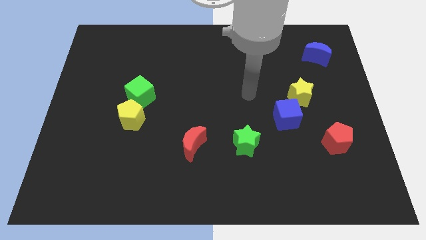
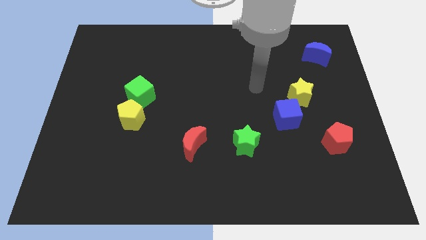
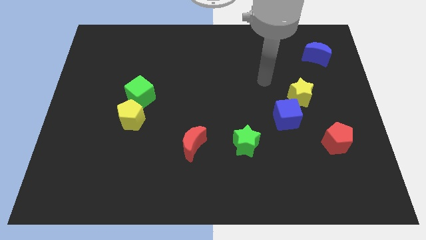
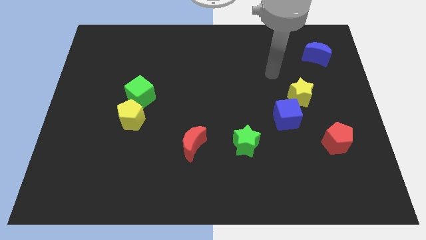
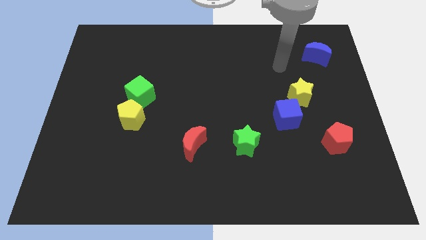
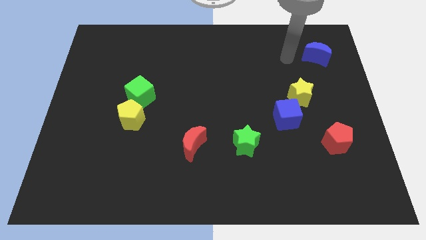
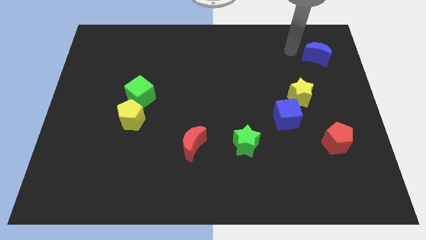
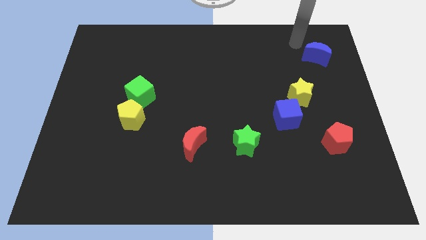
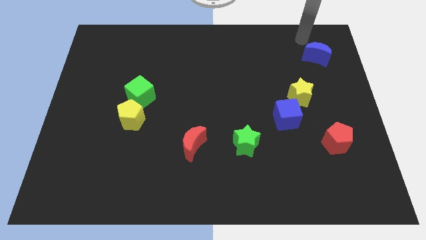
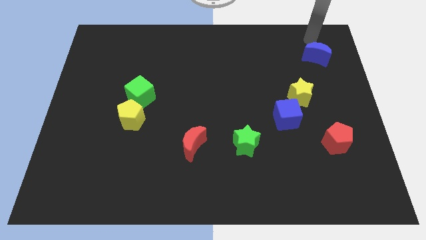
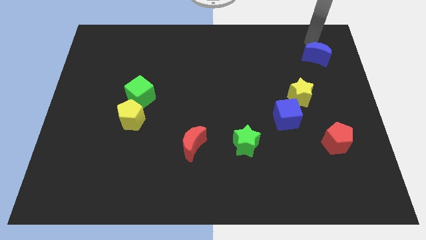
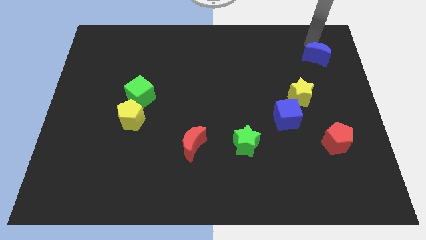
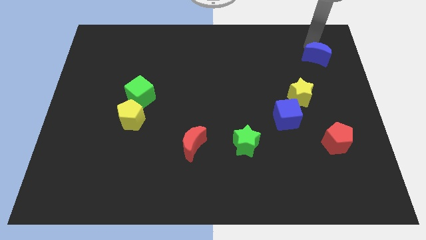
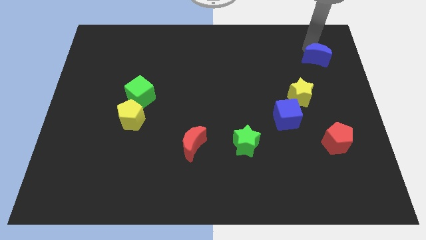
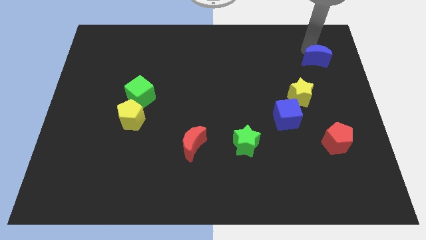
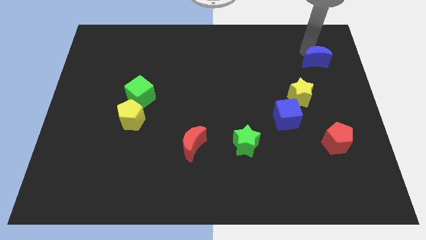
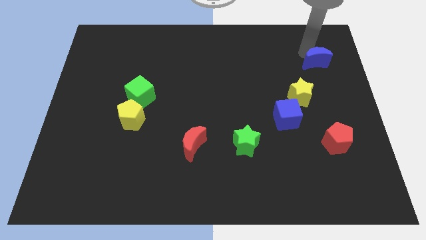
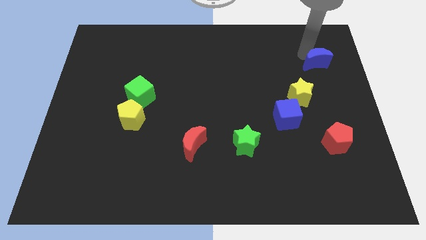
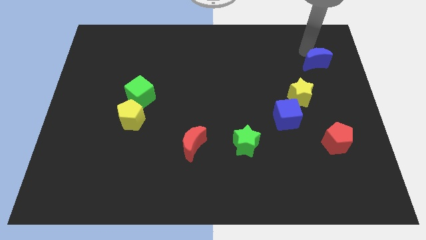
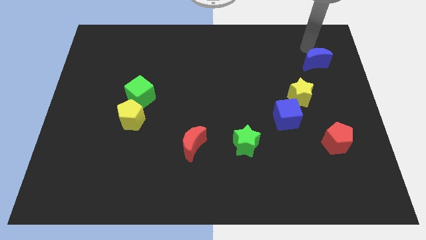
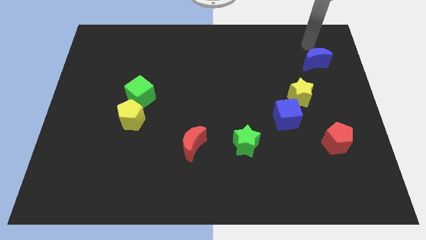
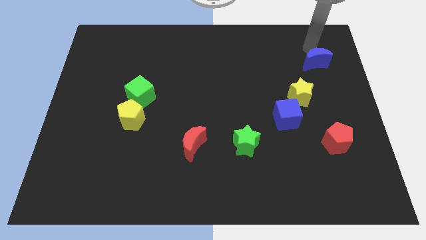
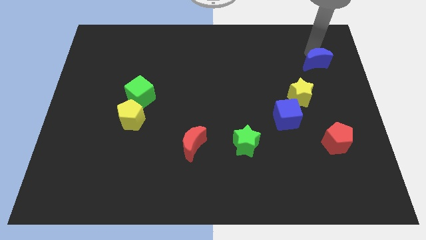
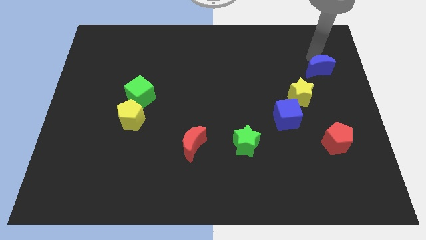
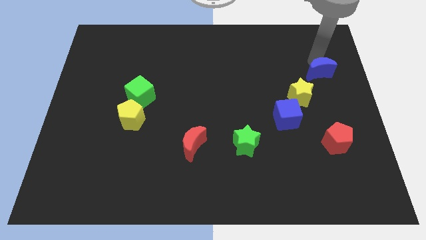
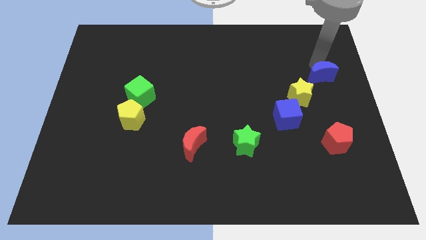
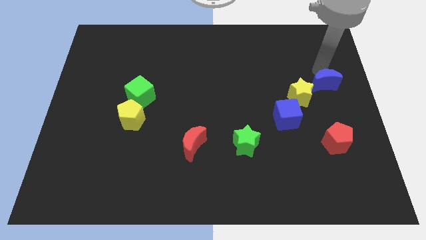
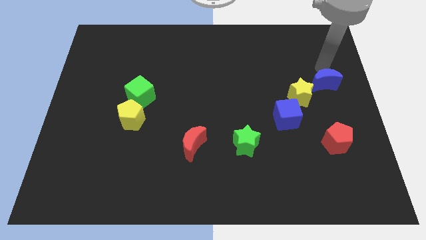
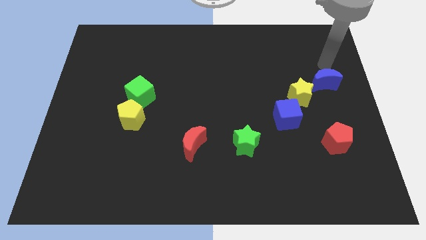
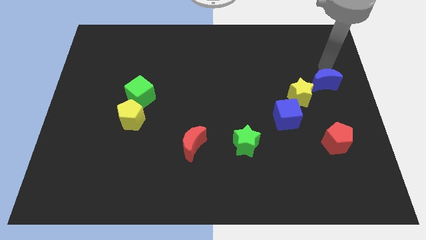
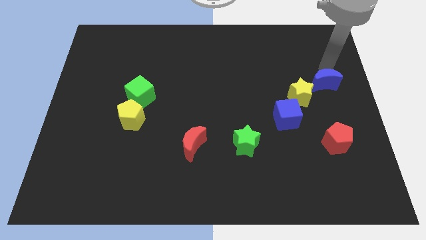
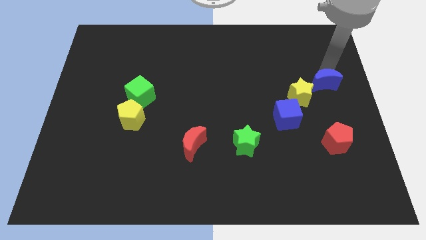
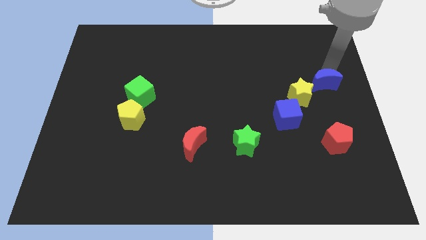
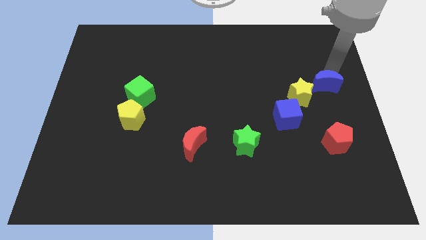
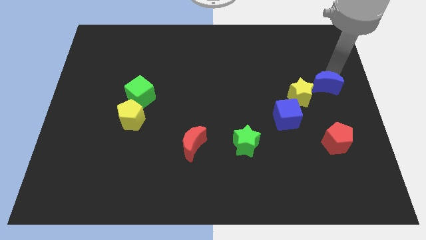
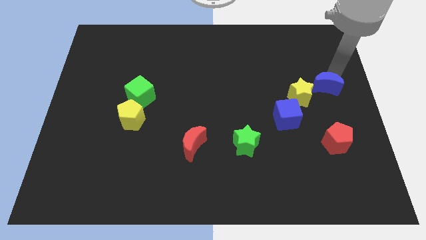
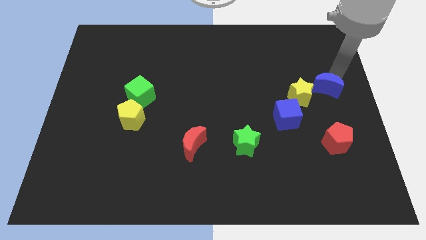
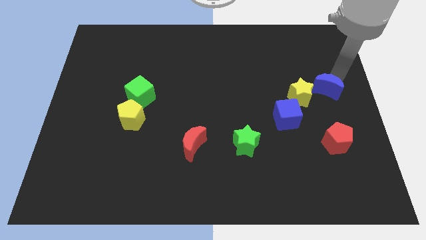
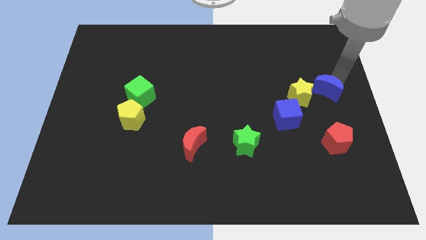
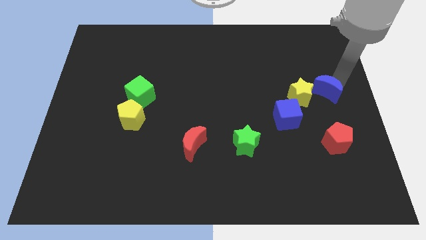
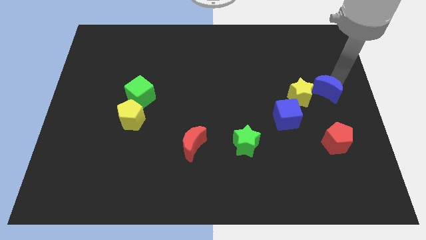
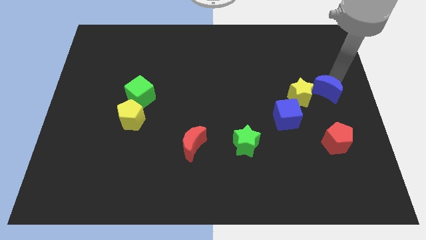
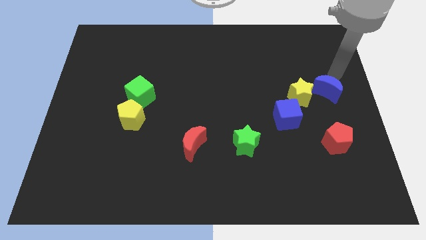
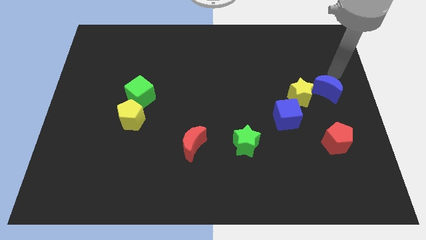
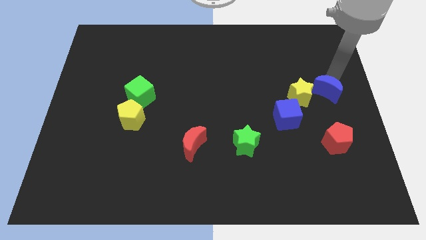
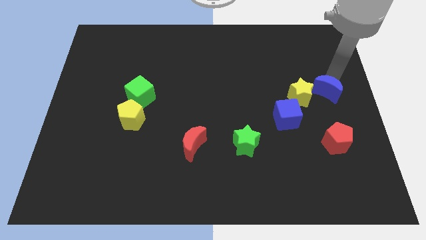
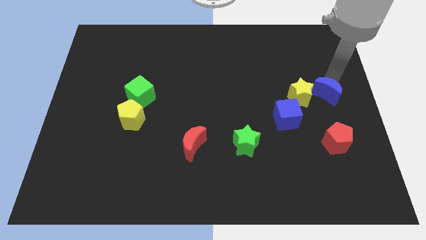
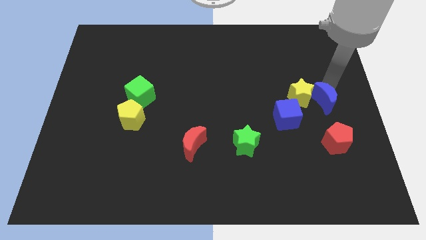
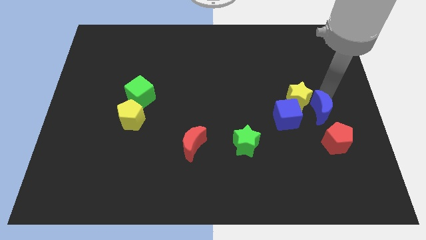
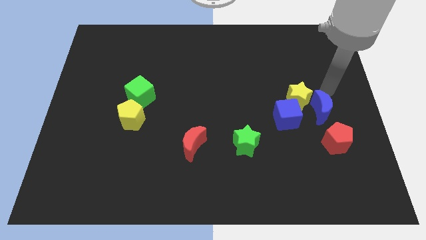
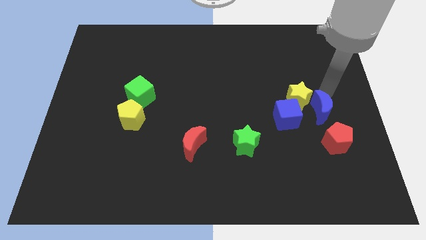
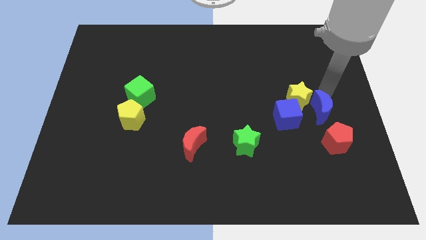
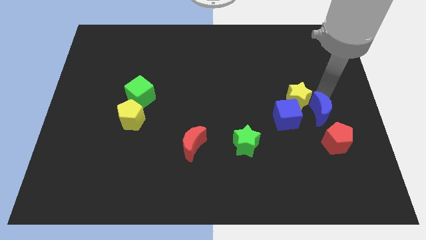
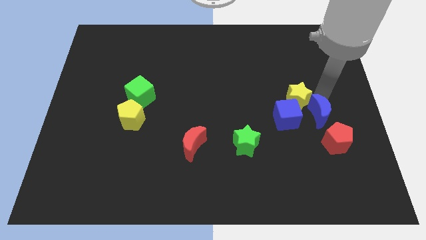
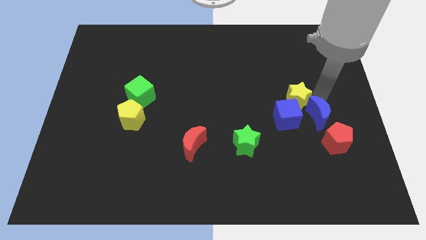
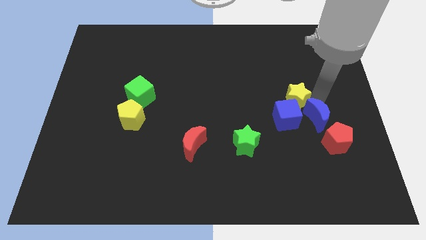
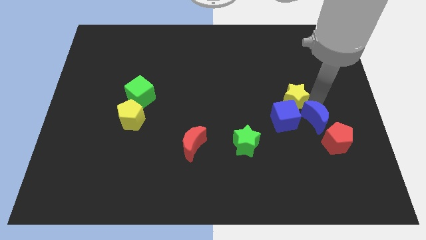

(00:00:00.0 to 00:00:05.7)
put the blue moon diagonally down and to the right of the blue cube

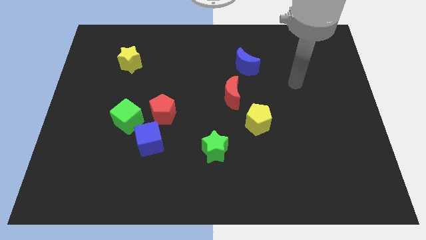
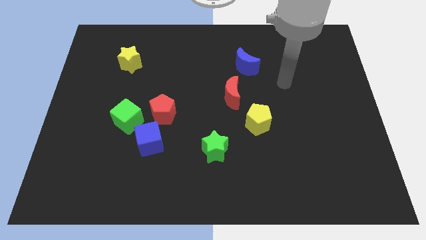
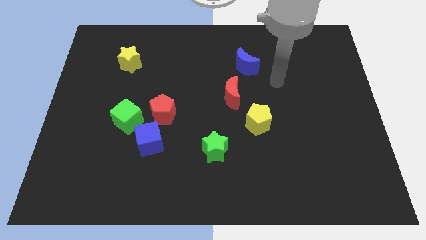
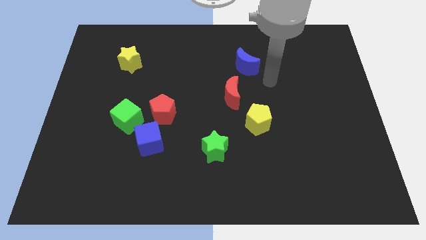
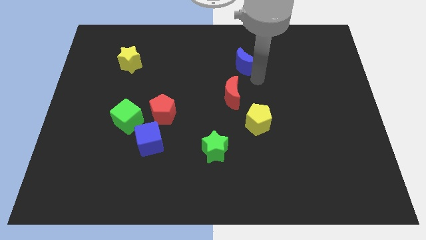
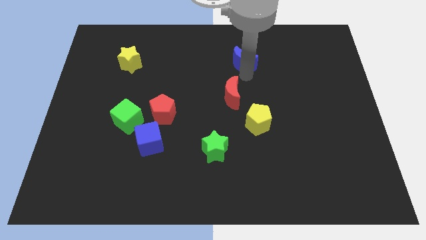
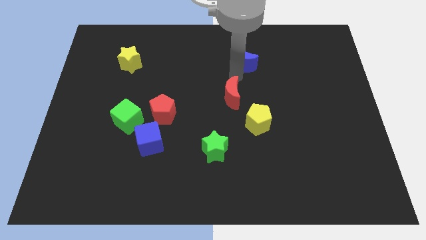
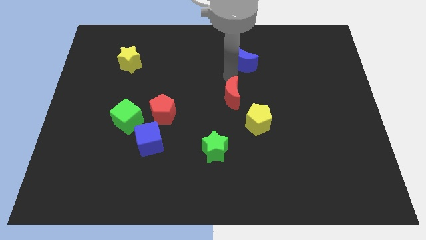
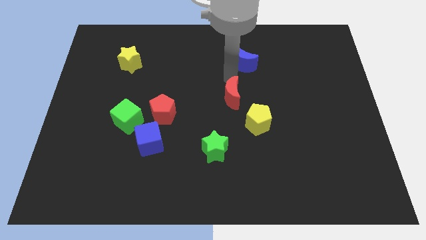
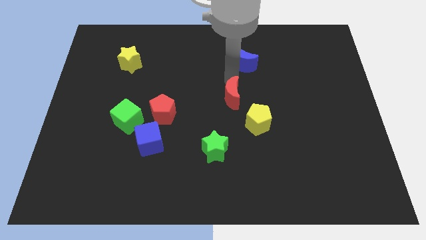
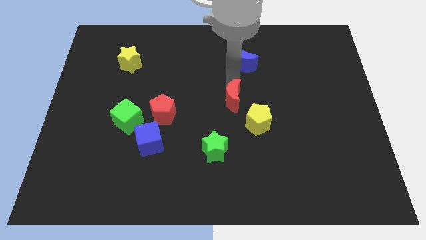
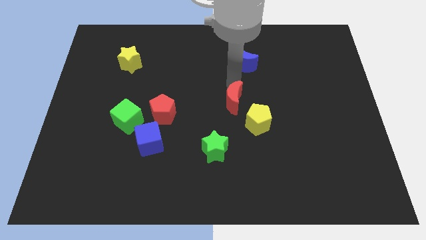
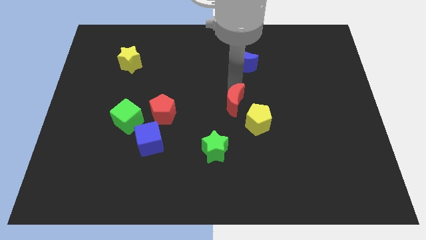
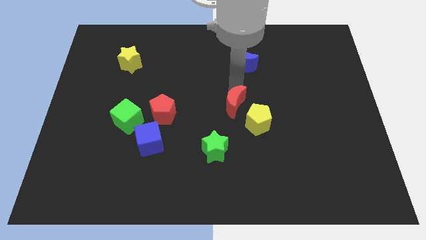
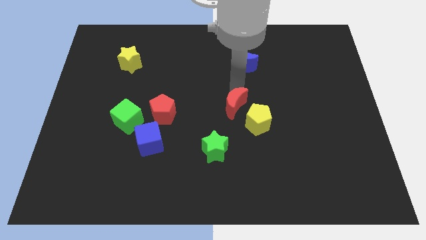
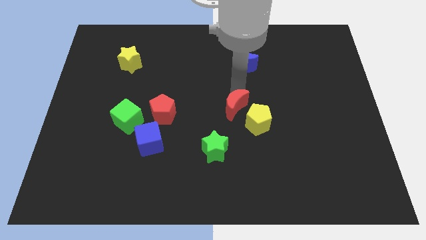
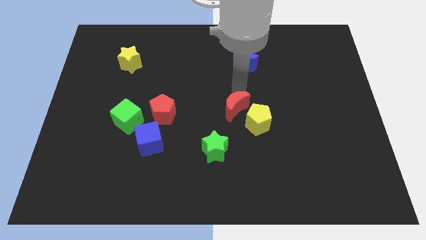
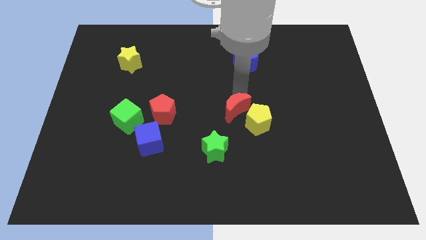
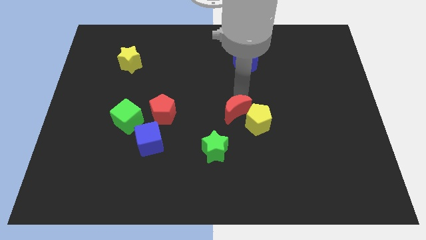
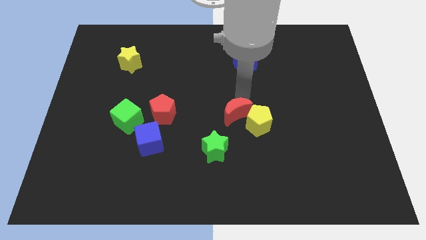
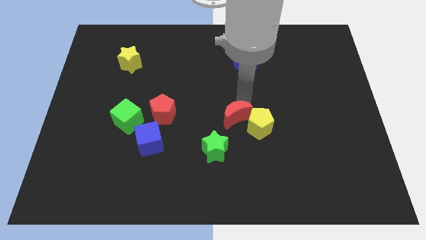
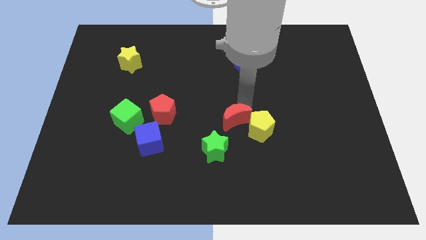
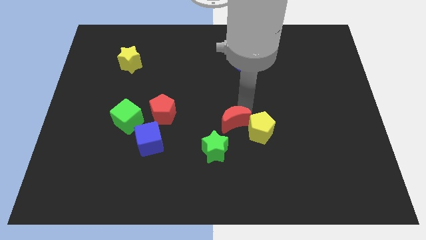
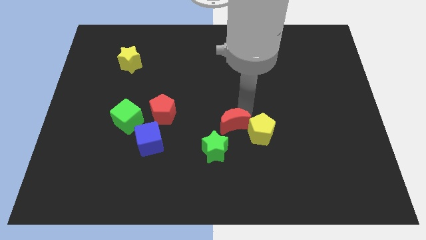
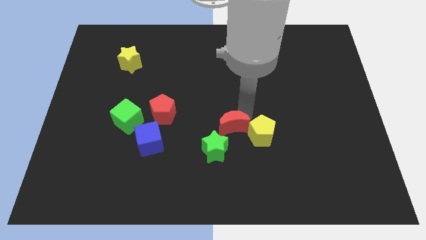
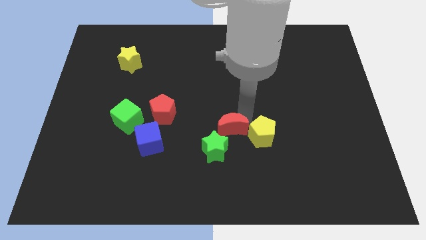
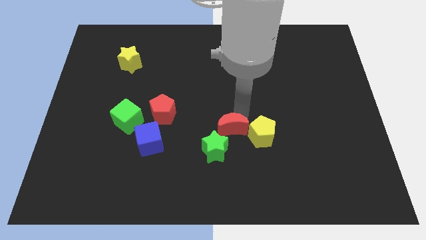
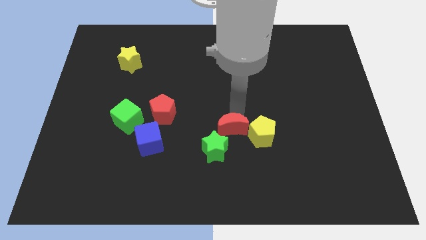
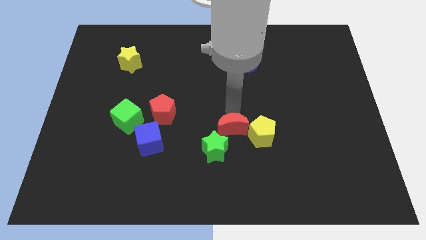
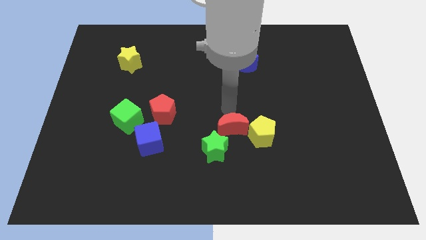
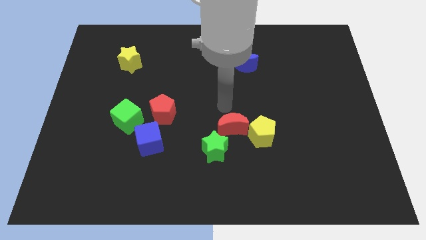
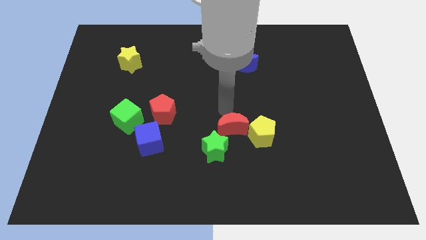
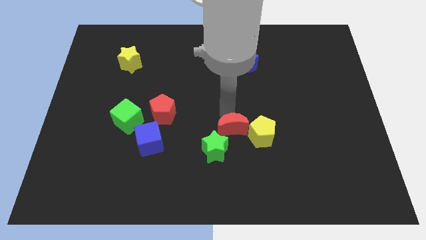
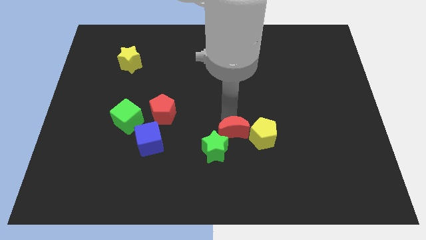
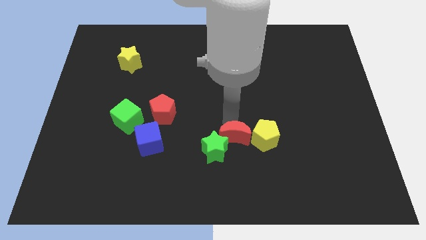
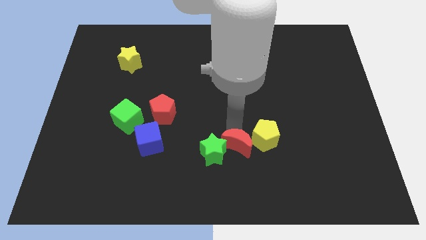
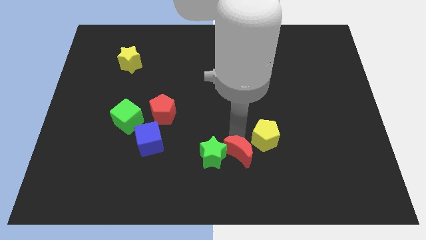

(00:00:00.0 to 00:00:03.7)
move the red moon to the bottom right of the green star
